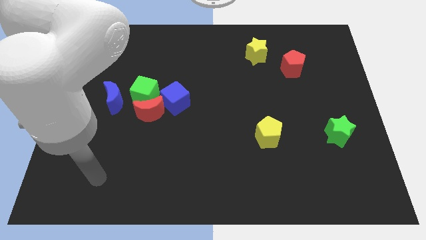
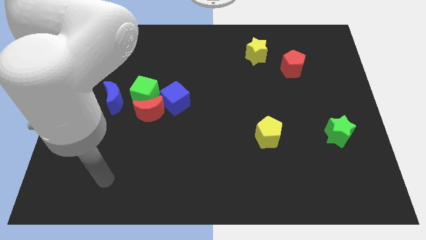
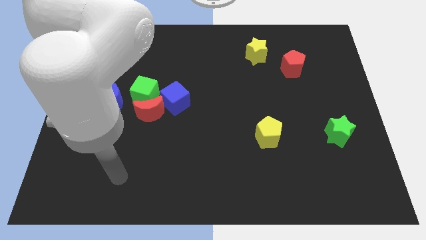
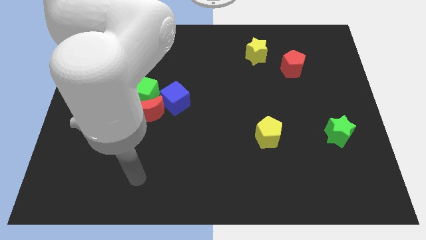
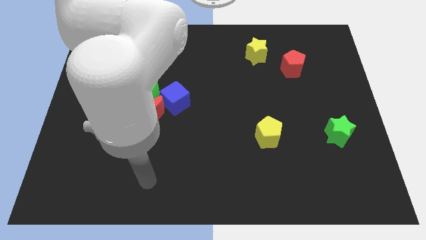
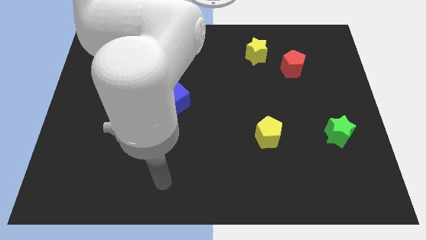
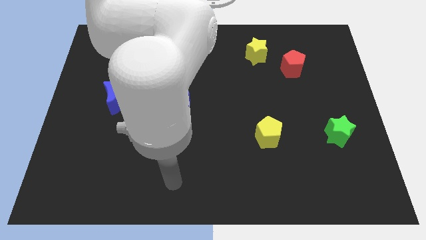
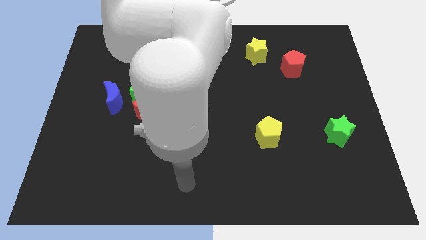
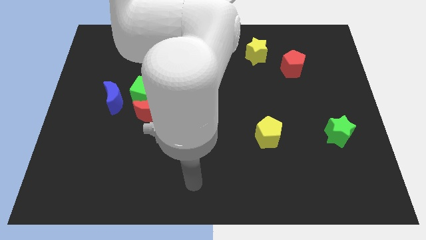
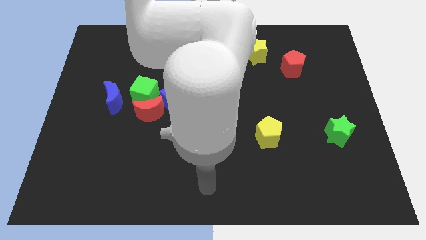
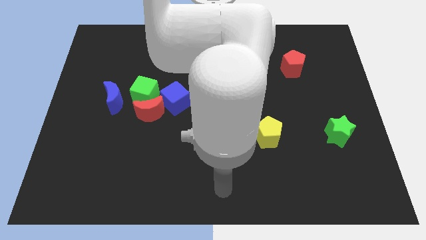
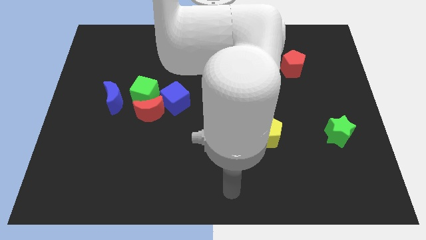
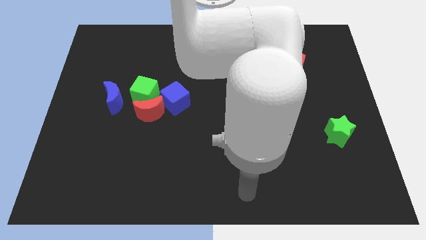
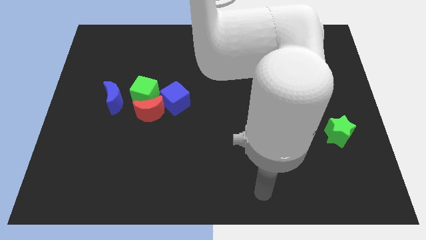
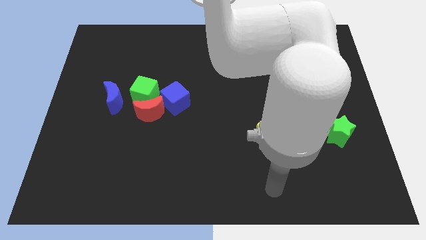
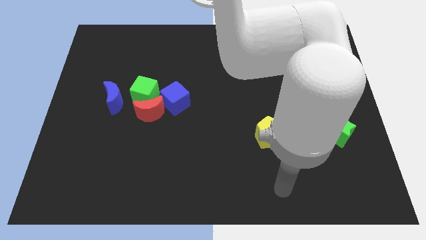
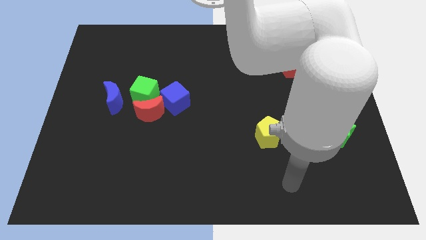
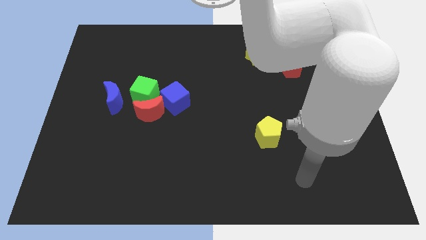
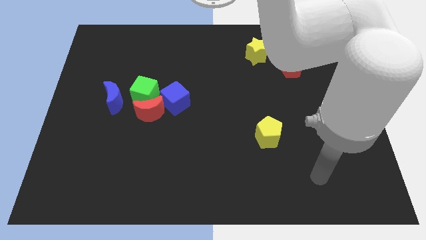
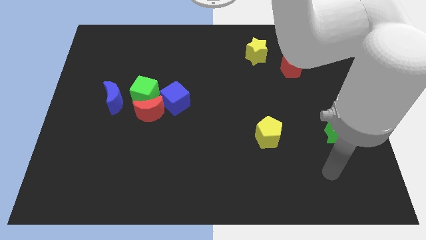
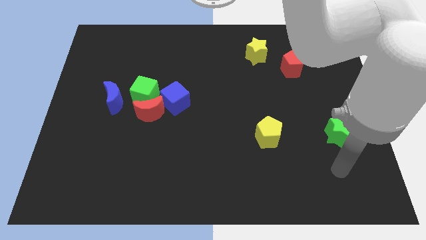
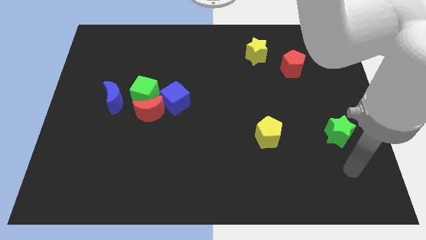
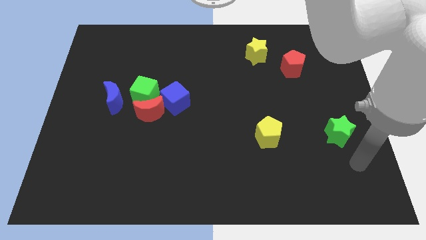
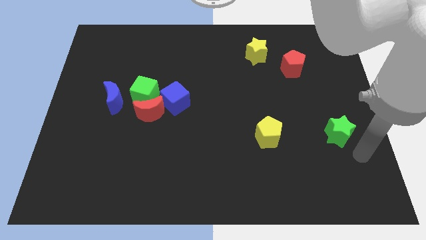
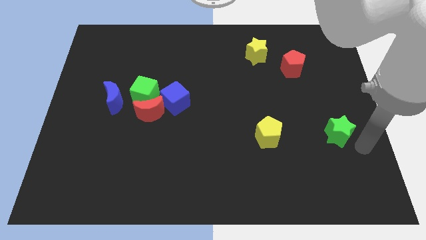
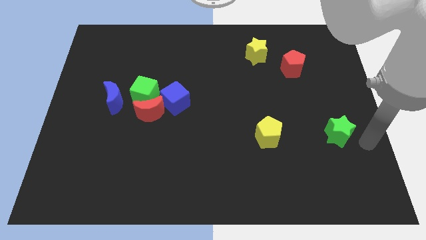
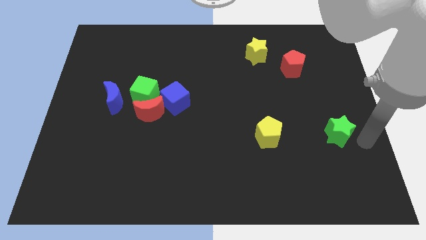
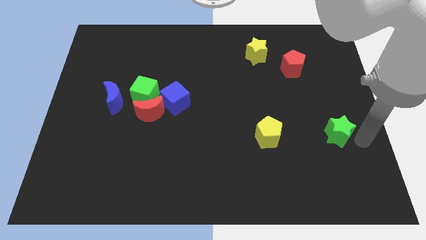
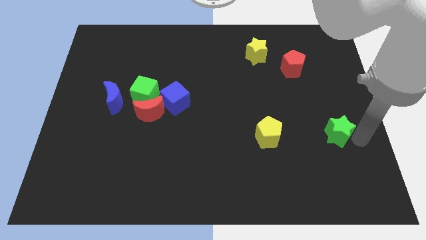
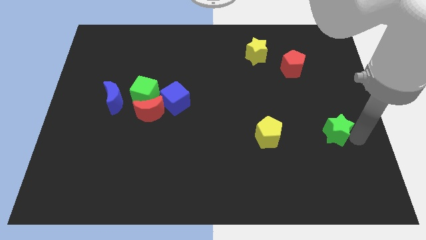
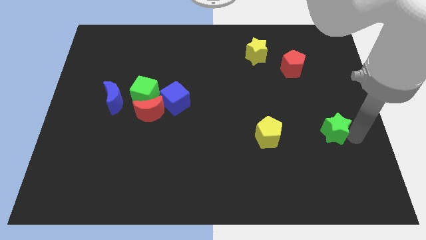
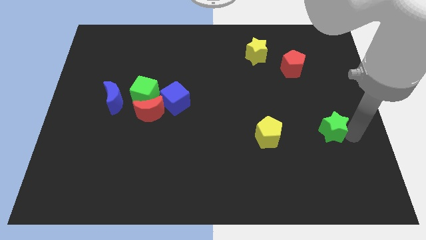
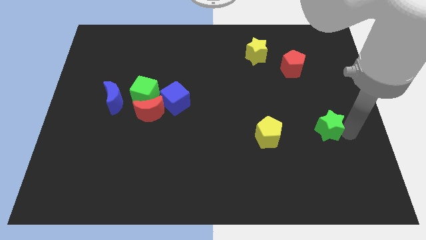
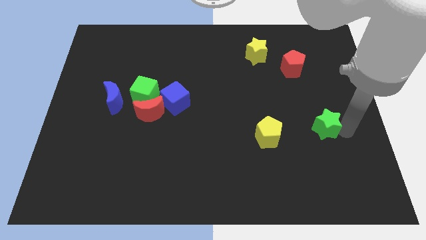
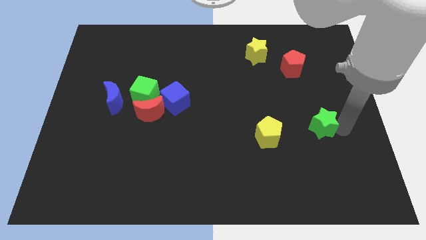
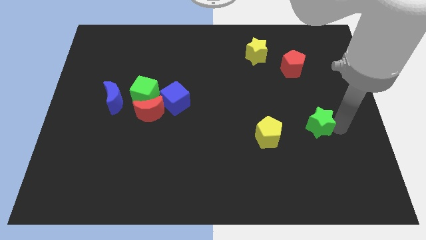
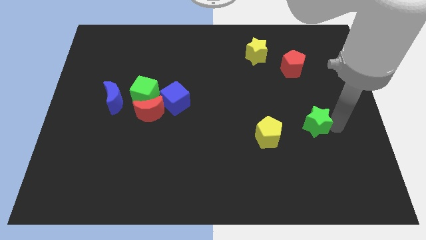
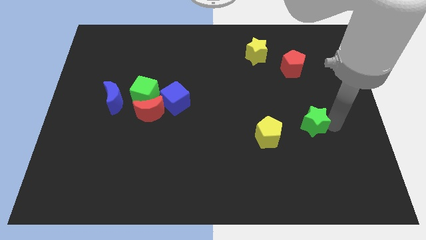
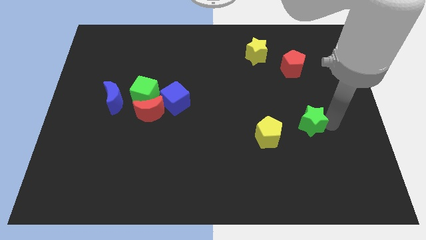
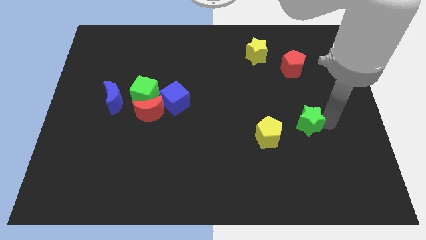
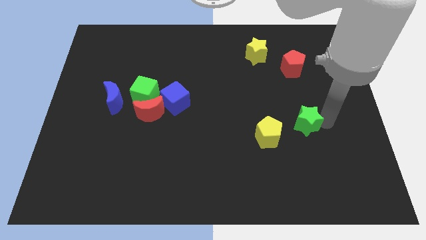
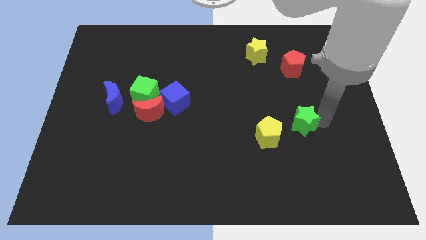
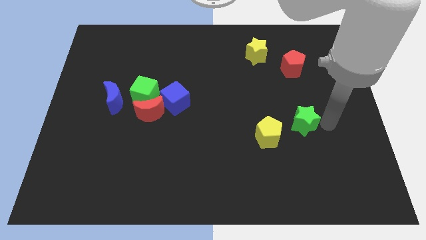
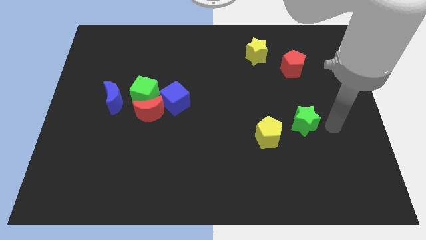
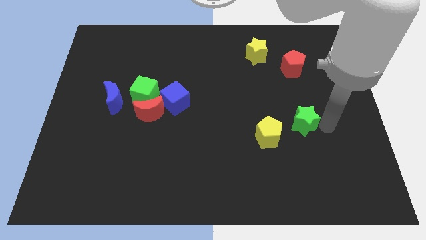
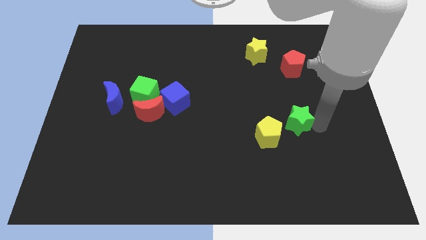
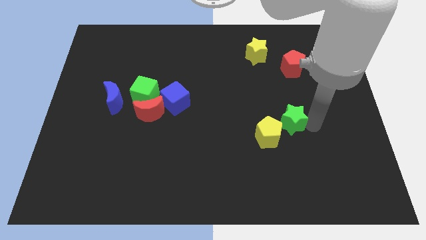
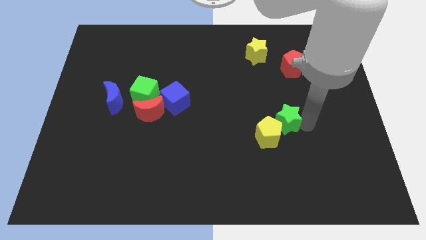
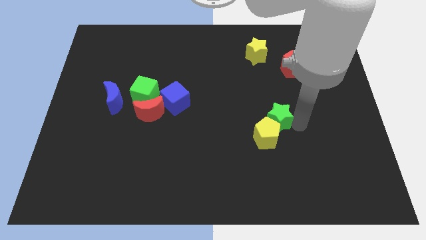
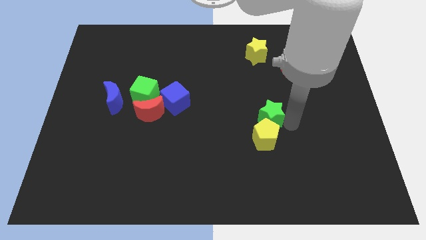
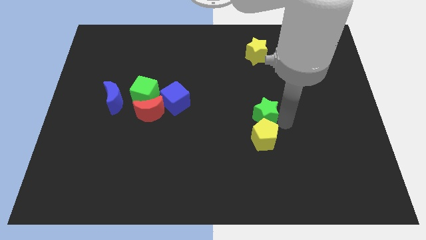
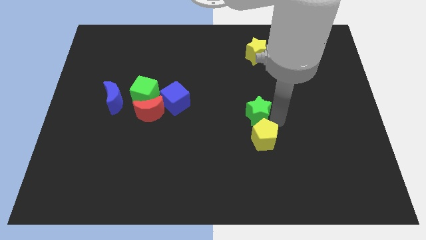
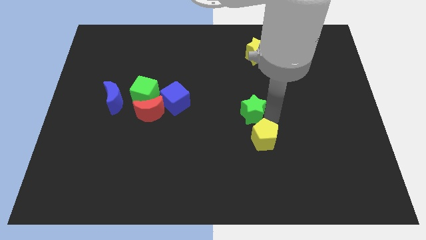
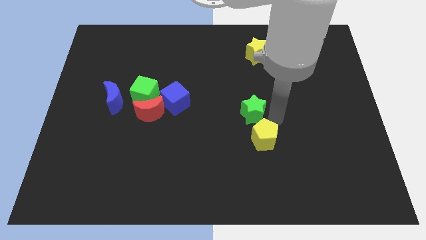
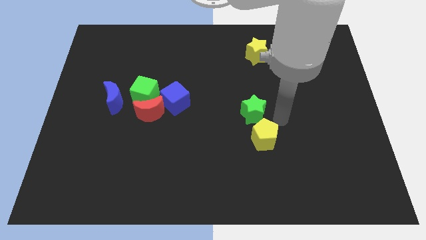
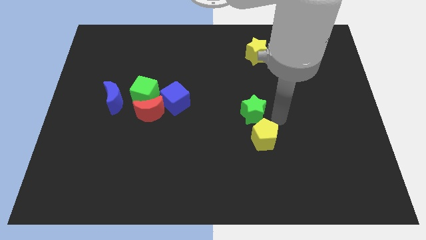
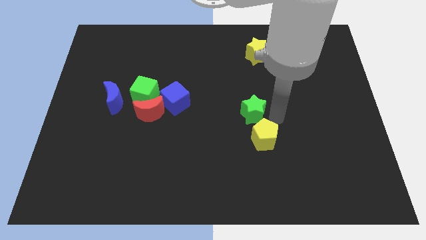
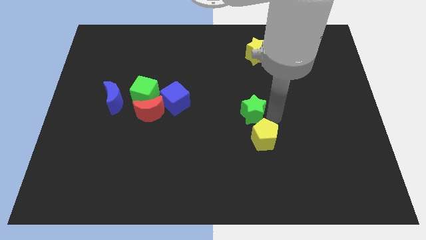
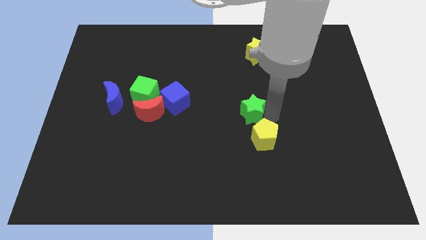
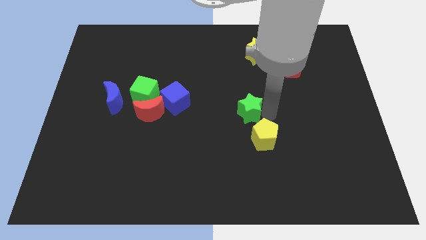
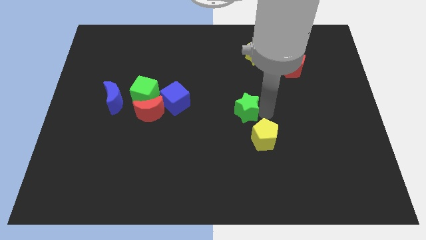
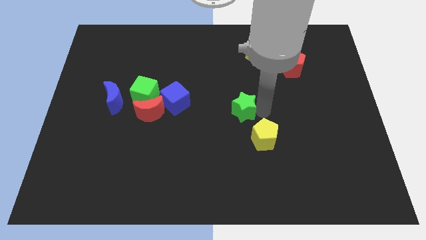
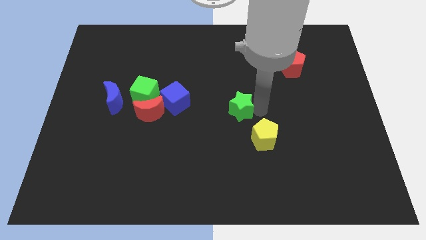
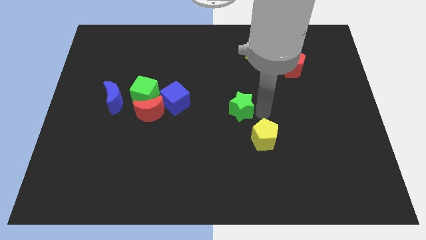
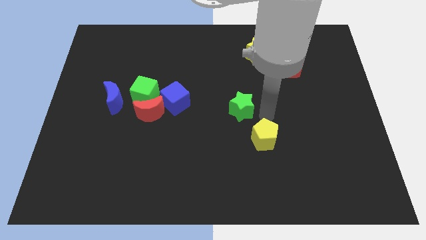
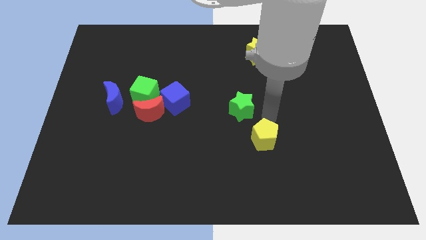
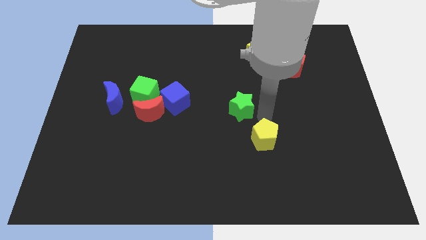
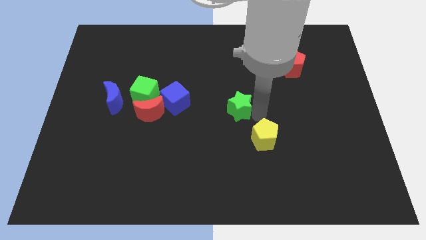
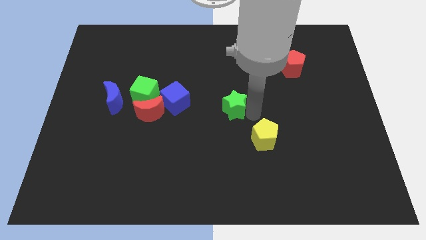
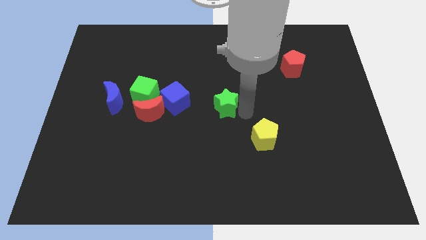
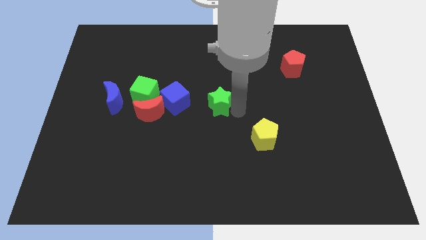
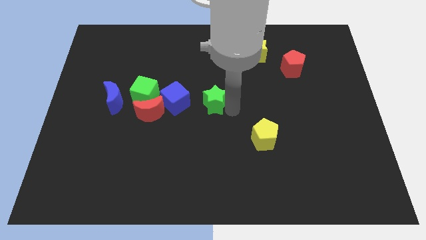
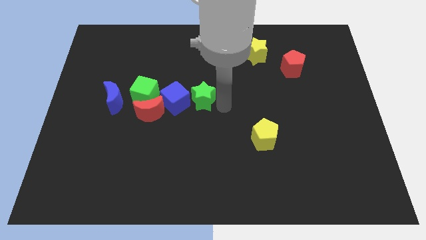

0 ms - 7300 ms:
put the green star close to the blue cube

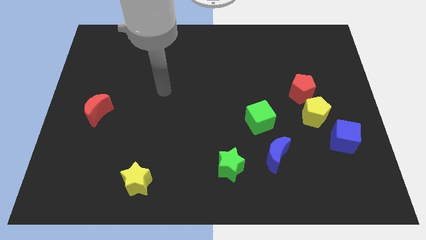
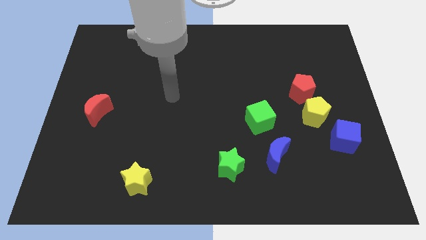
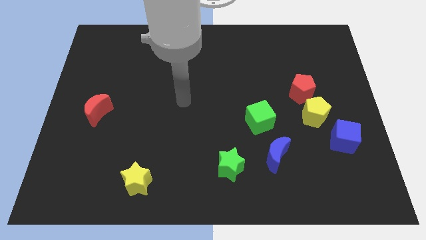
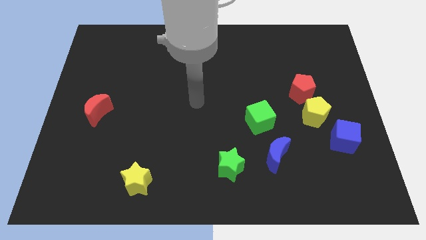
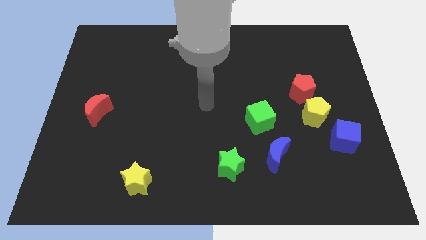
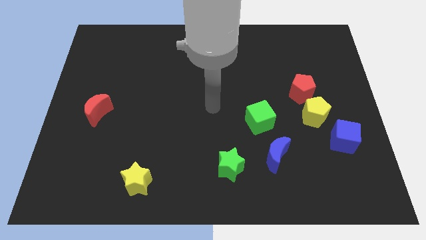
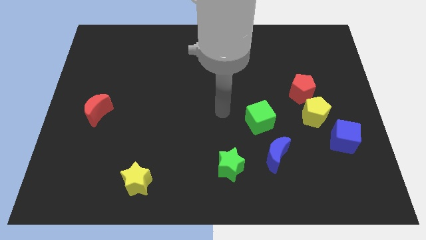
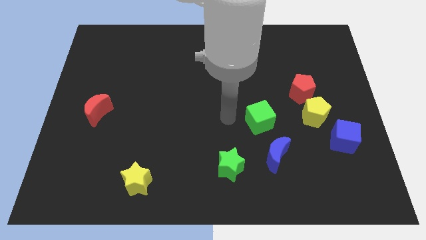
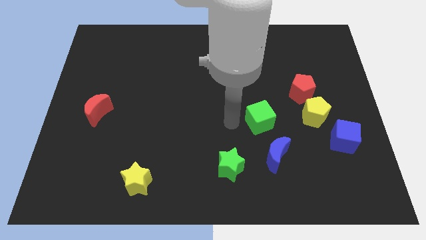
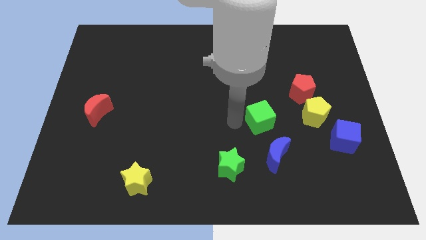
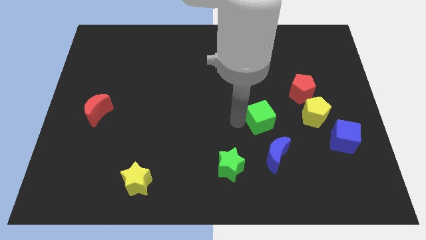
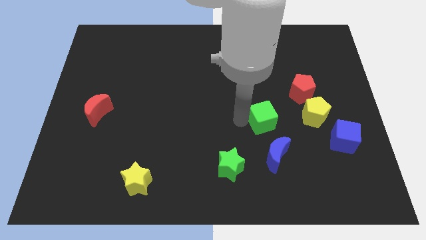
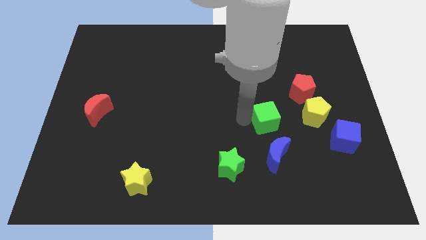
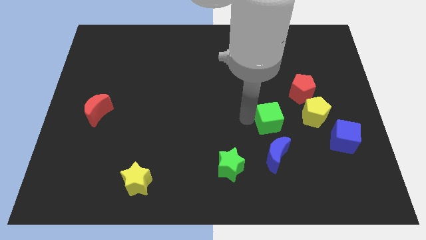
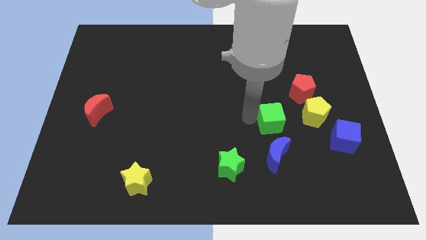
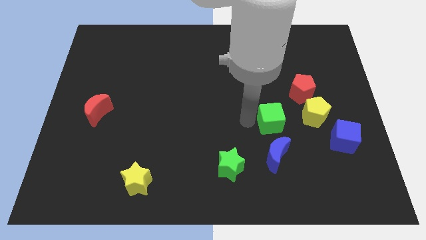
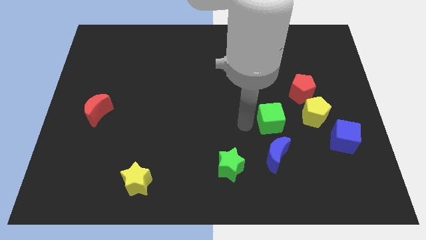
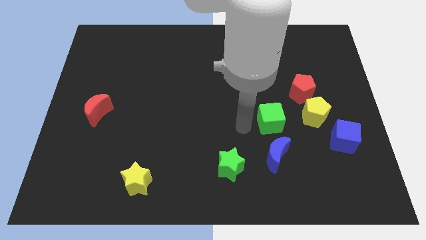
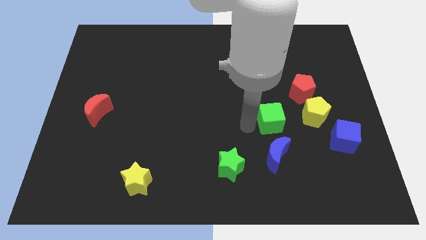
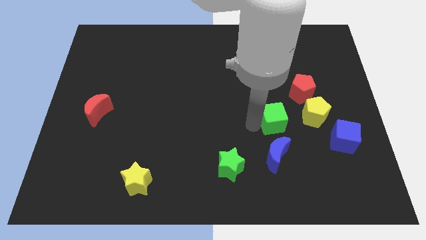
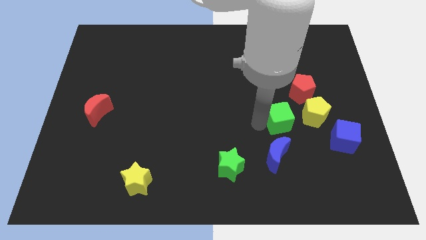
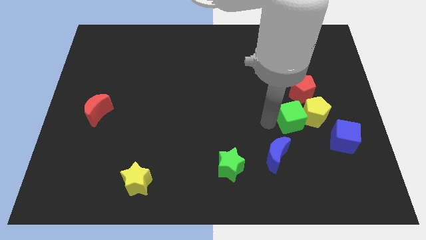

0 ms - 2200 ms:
move the green cube towards the yellow pentagon
